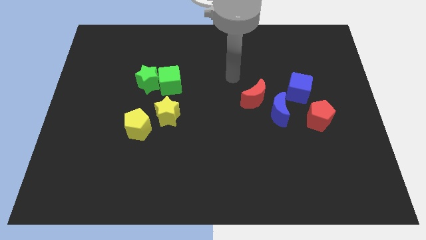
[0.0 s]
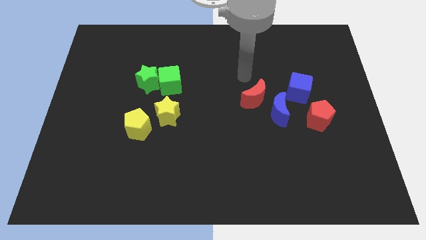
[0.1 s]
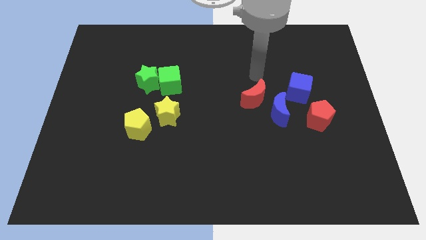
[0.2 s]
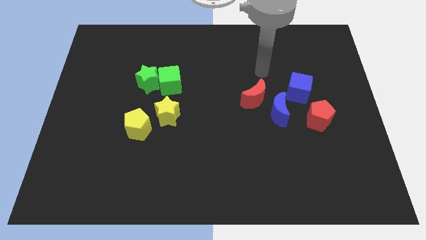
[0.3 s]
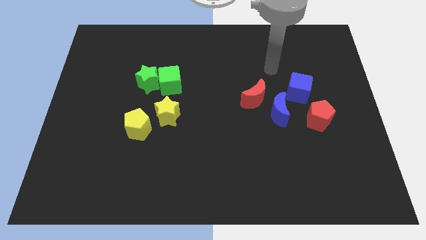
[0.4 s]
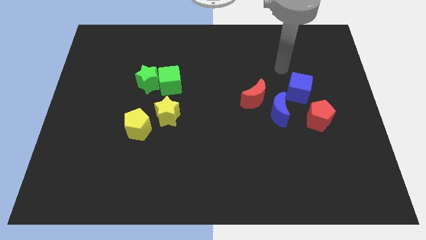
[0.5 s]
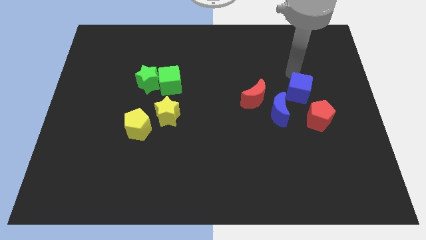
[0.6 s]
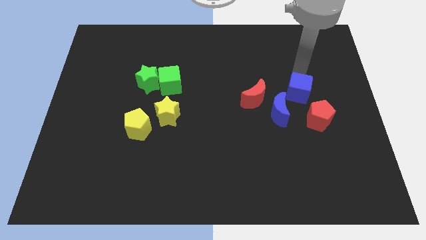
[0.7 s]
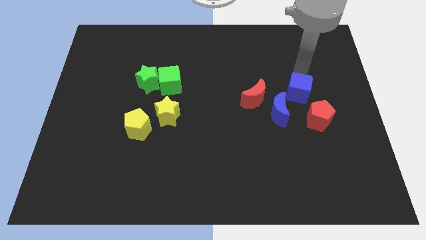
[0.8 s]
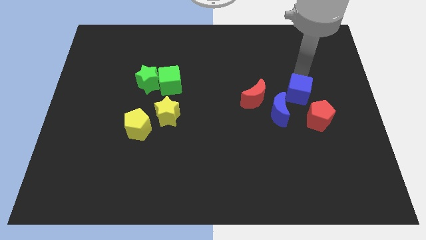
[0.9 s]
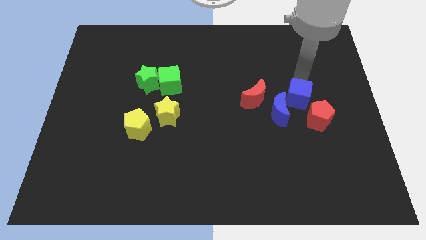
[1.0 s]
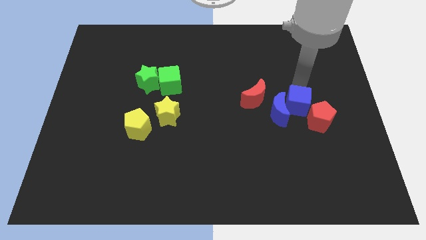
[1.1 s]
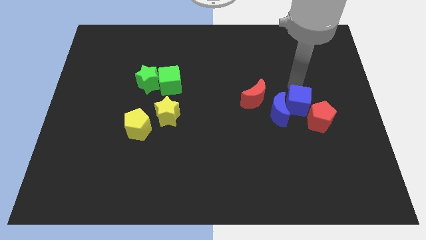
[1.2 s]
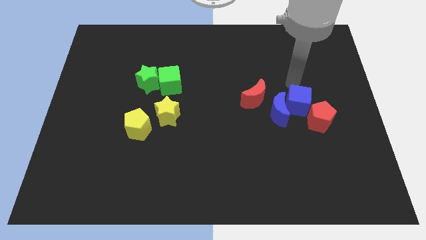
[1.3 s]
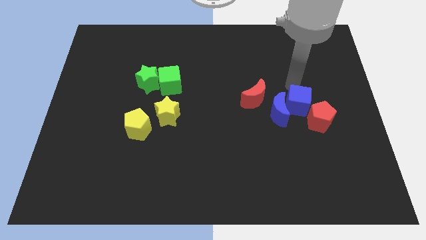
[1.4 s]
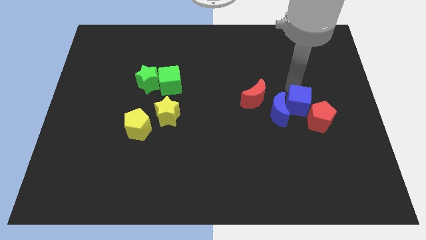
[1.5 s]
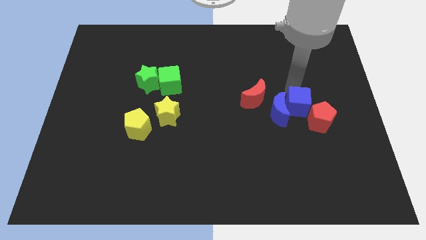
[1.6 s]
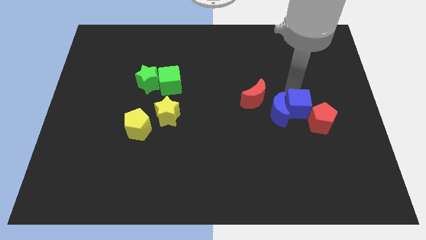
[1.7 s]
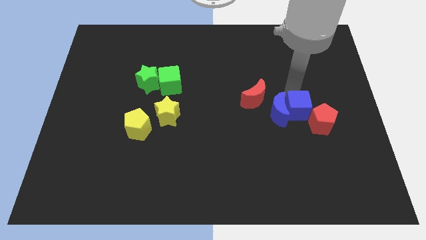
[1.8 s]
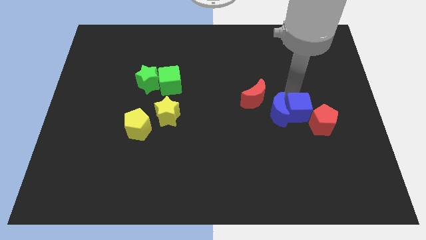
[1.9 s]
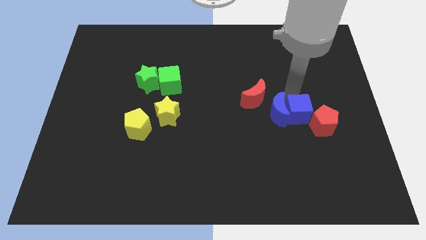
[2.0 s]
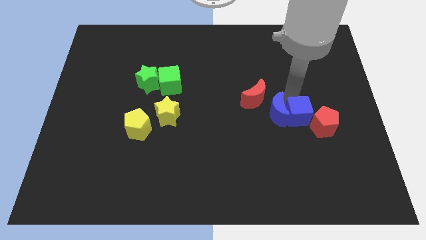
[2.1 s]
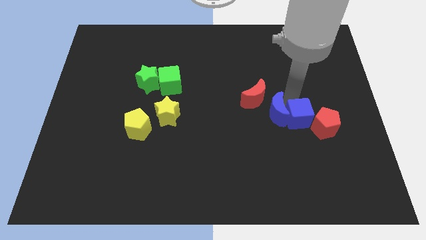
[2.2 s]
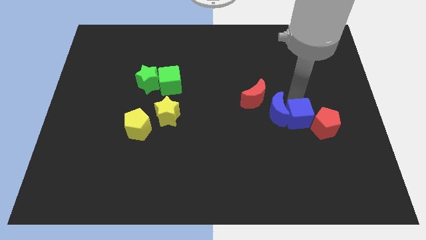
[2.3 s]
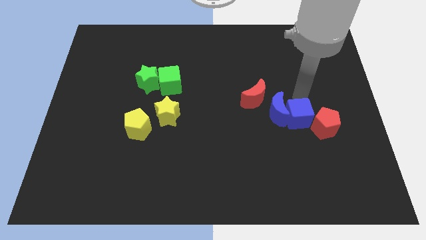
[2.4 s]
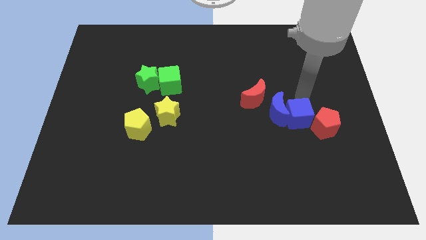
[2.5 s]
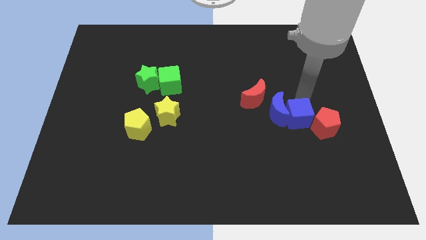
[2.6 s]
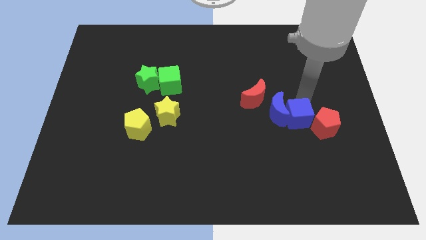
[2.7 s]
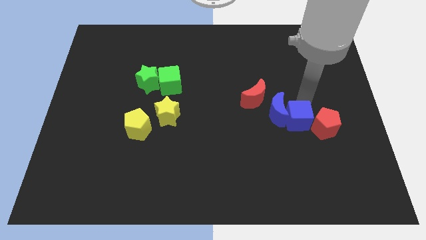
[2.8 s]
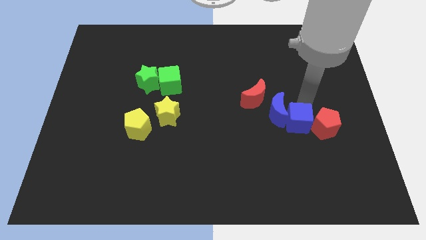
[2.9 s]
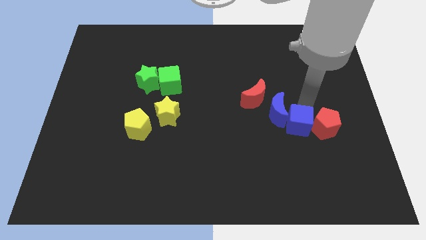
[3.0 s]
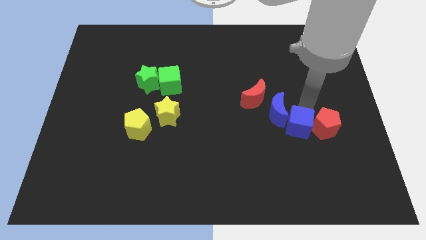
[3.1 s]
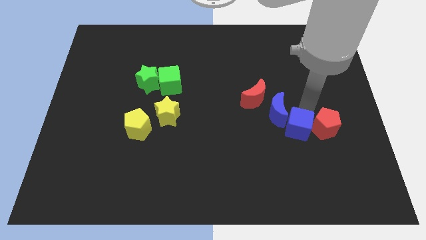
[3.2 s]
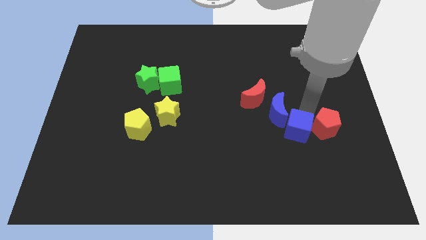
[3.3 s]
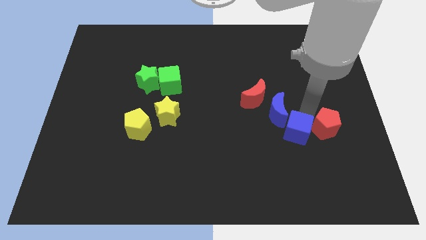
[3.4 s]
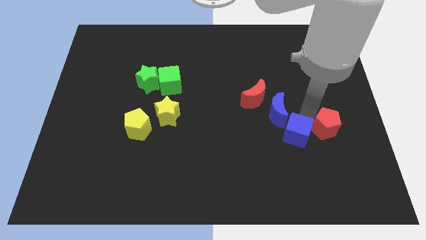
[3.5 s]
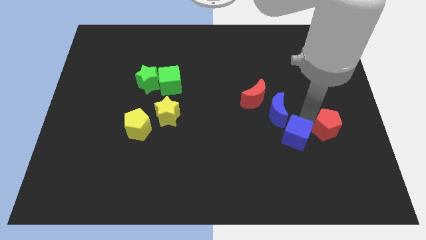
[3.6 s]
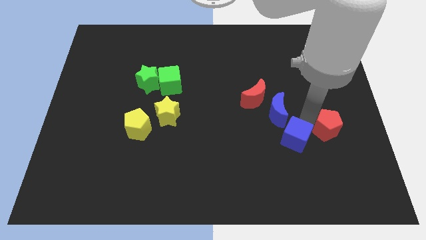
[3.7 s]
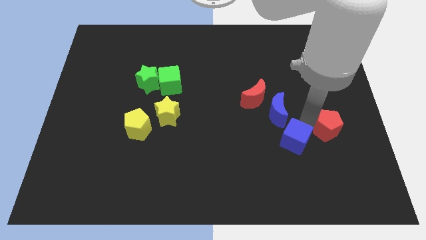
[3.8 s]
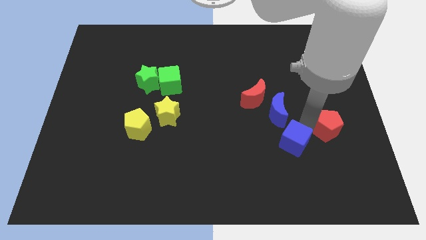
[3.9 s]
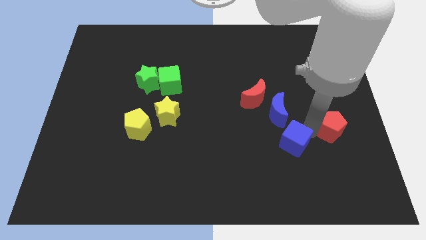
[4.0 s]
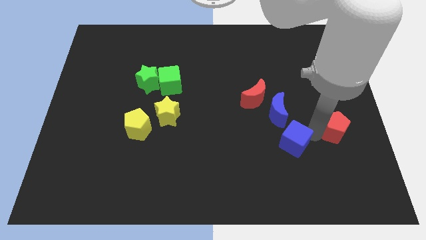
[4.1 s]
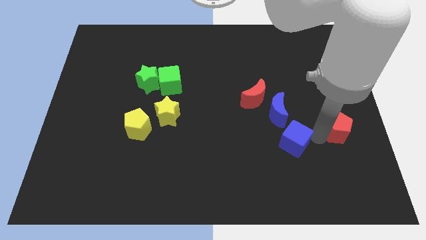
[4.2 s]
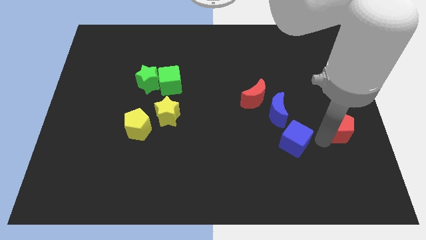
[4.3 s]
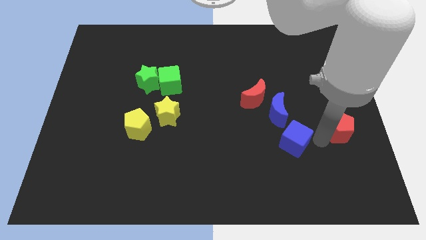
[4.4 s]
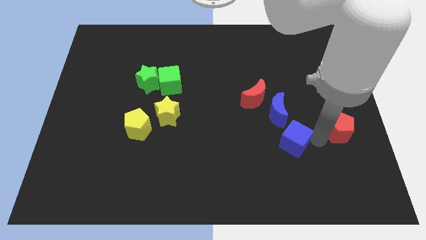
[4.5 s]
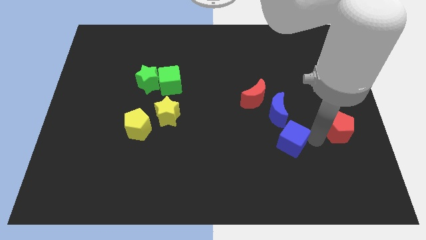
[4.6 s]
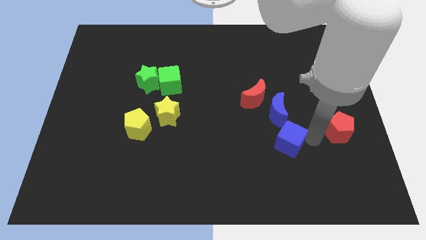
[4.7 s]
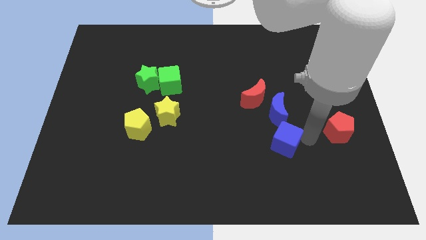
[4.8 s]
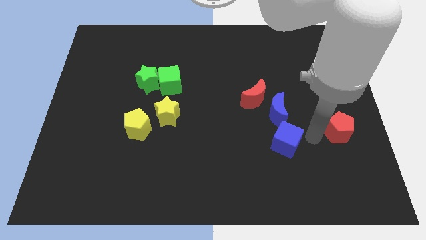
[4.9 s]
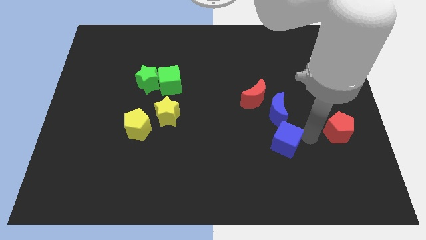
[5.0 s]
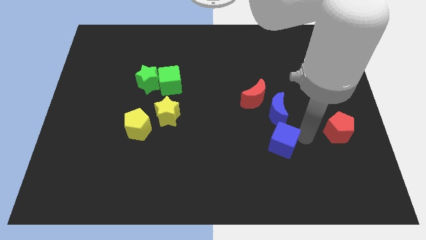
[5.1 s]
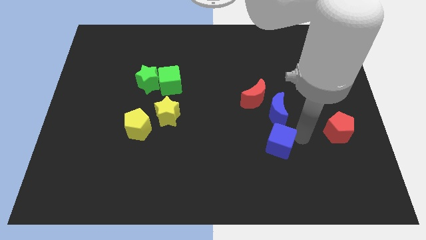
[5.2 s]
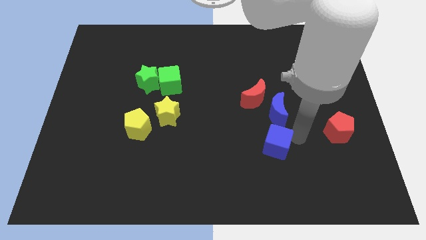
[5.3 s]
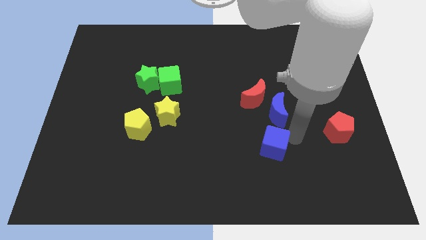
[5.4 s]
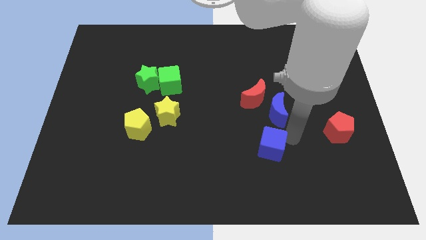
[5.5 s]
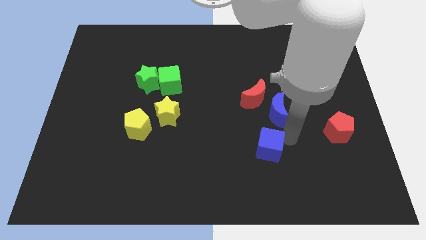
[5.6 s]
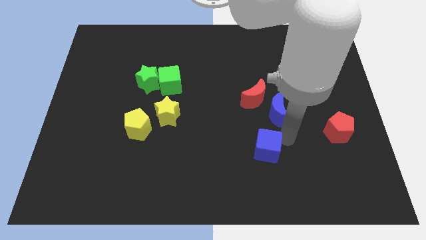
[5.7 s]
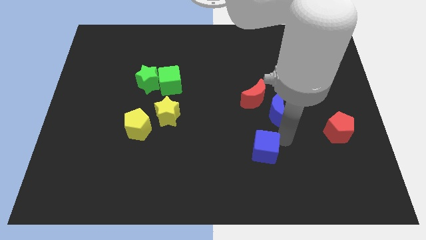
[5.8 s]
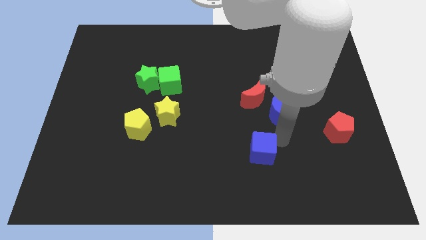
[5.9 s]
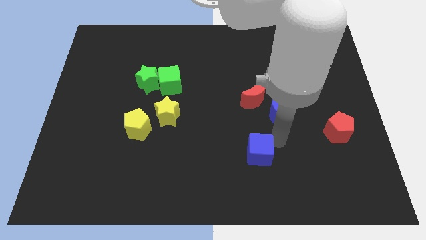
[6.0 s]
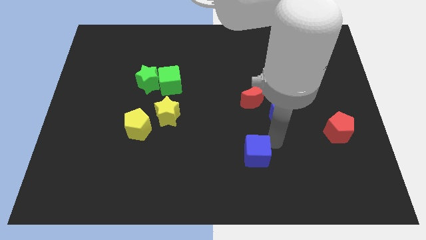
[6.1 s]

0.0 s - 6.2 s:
slide the blue cube downwards and left diagonally

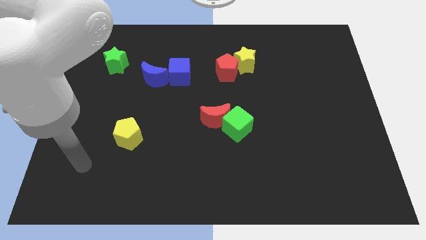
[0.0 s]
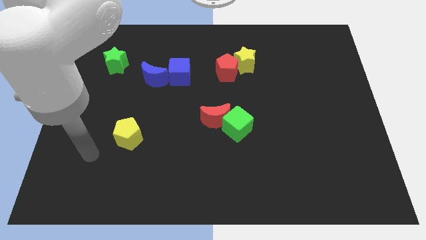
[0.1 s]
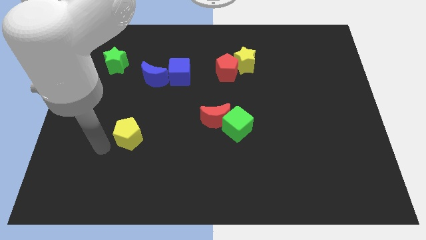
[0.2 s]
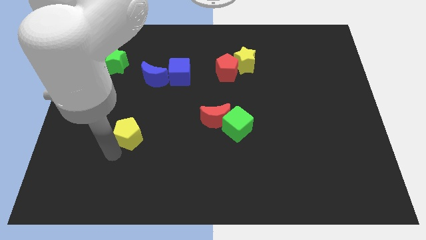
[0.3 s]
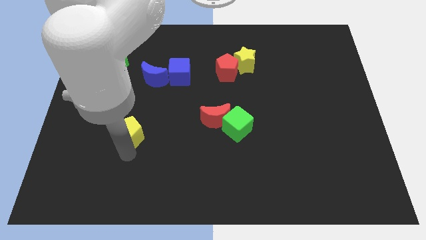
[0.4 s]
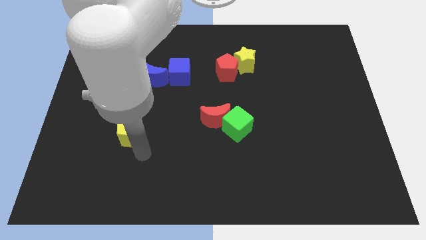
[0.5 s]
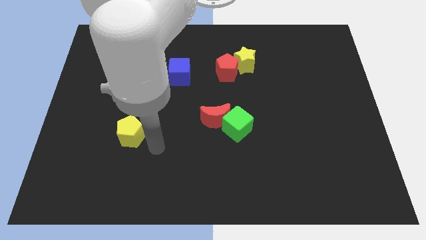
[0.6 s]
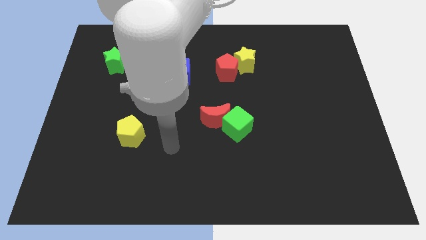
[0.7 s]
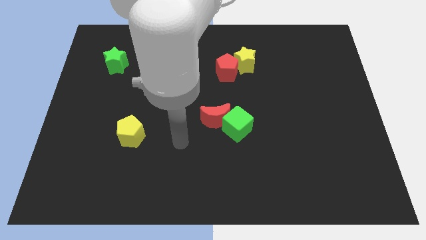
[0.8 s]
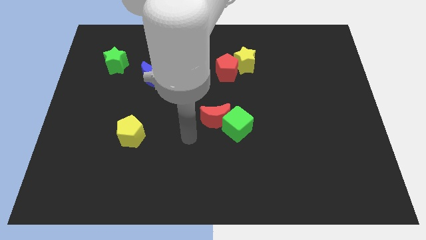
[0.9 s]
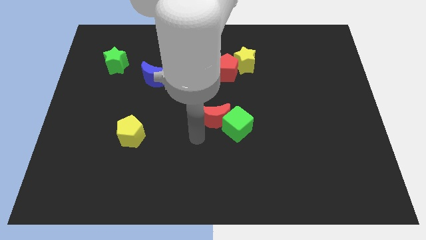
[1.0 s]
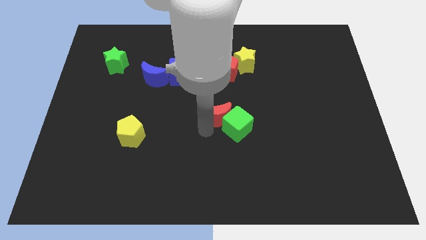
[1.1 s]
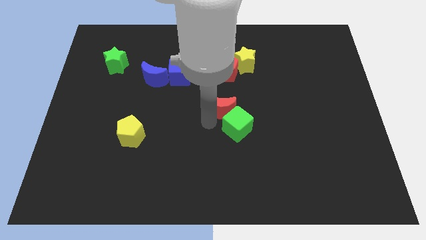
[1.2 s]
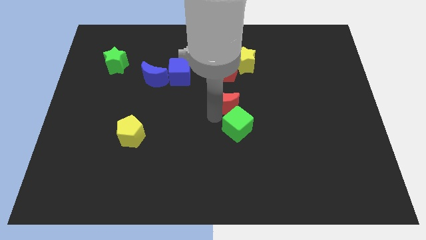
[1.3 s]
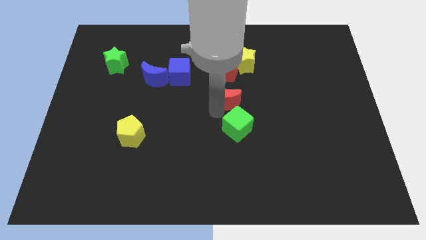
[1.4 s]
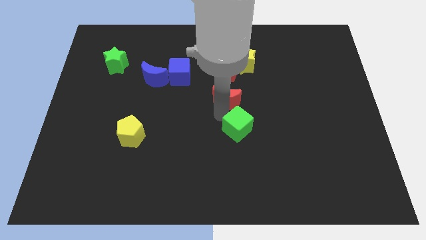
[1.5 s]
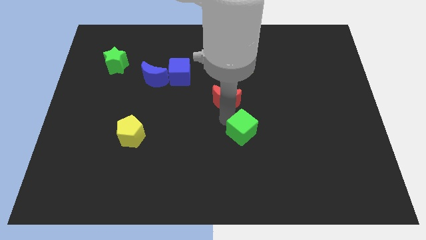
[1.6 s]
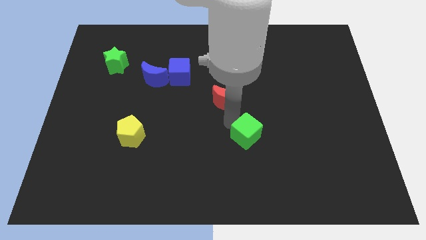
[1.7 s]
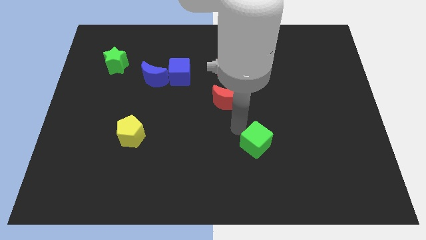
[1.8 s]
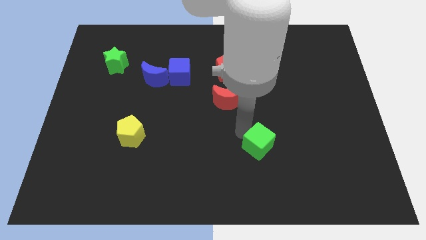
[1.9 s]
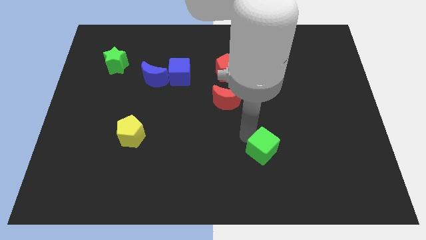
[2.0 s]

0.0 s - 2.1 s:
push the green cube diagonally down and right a bit
